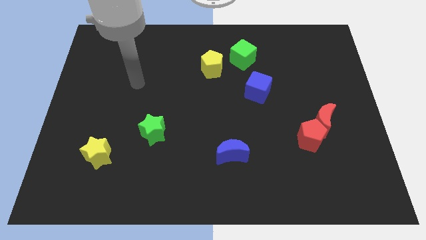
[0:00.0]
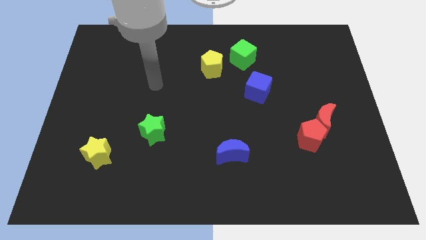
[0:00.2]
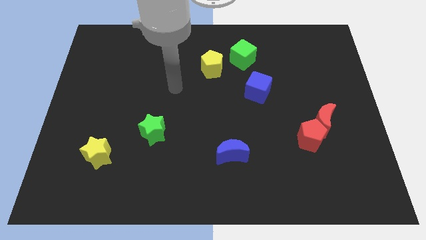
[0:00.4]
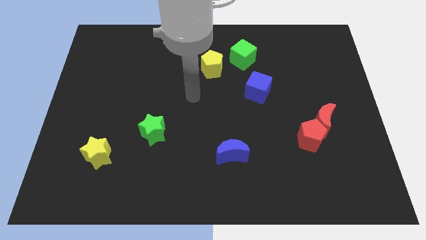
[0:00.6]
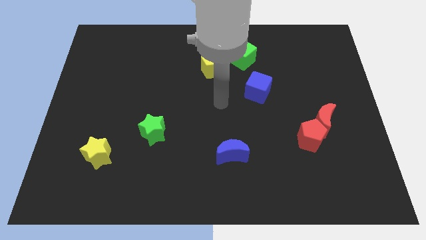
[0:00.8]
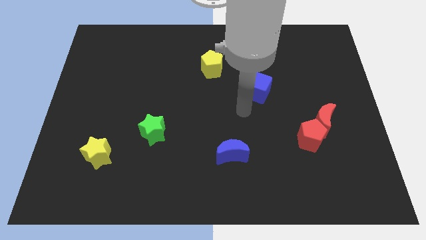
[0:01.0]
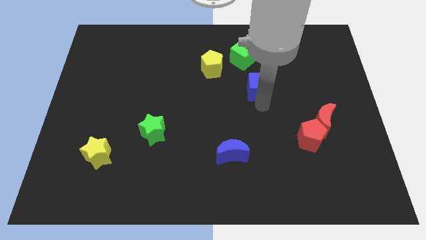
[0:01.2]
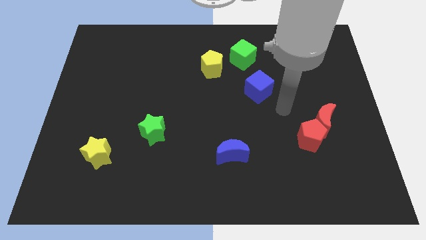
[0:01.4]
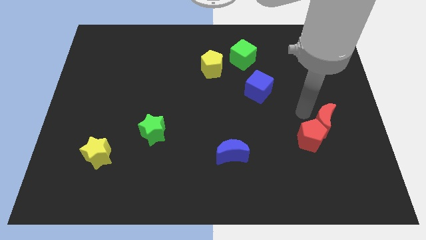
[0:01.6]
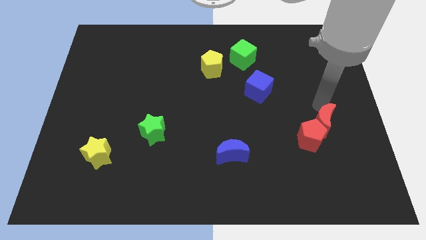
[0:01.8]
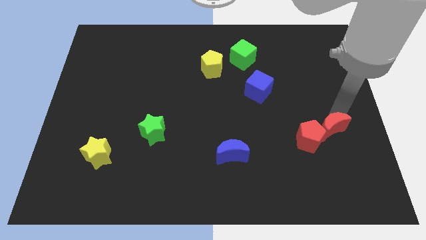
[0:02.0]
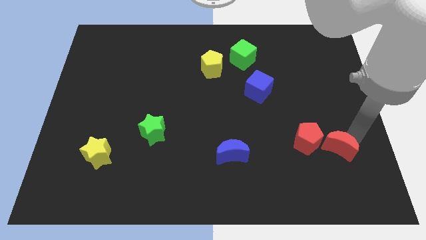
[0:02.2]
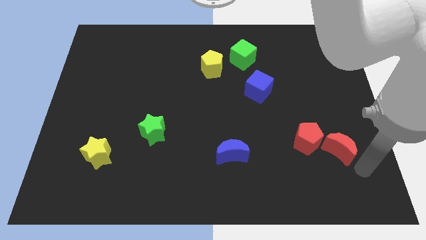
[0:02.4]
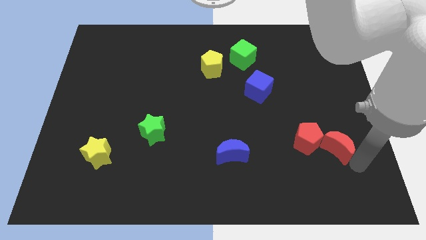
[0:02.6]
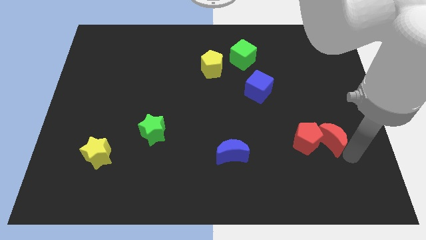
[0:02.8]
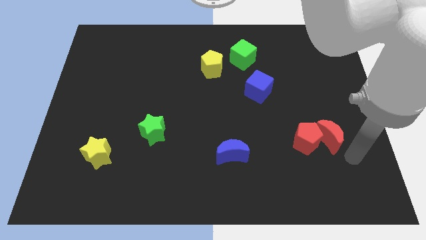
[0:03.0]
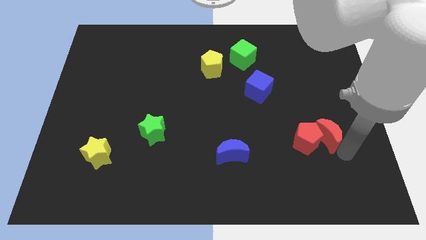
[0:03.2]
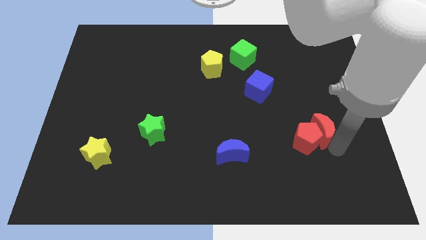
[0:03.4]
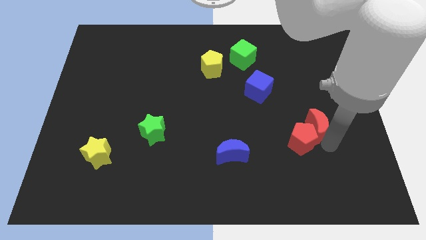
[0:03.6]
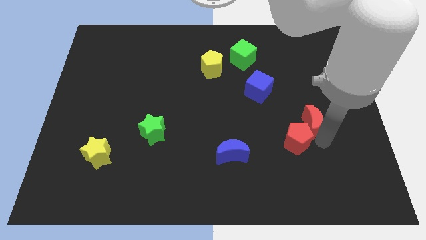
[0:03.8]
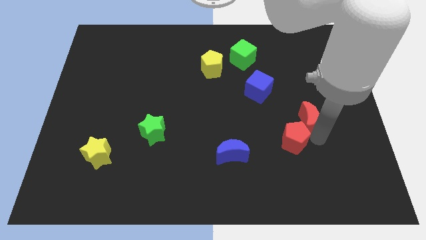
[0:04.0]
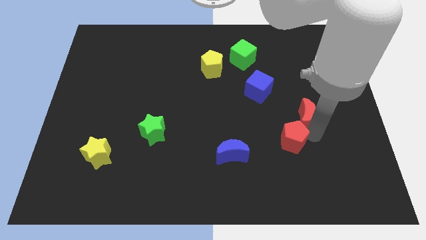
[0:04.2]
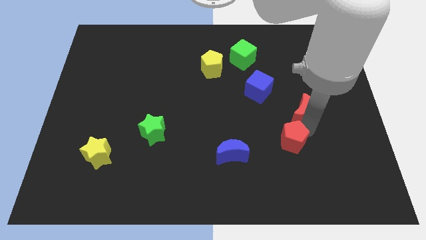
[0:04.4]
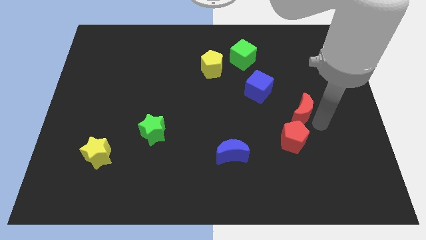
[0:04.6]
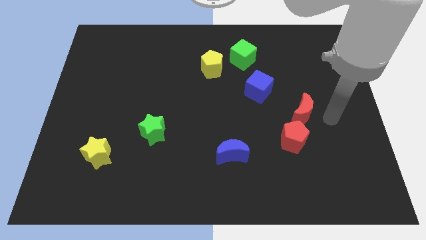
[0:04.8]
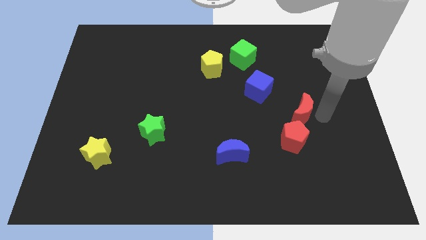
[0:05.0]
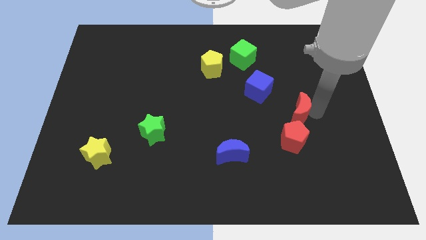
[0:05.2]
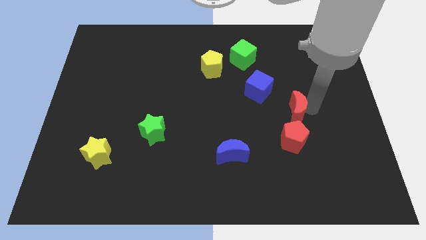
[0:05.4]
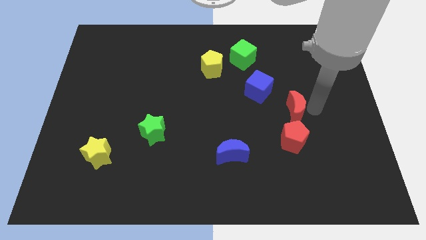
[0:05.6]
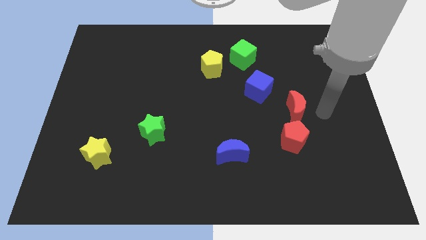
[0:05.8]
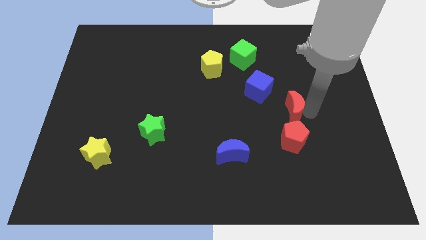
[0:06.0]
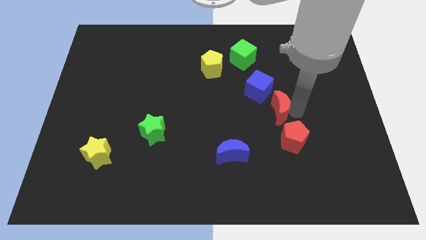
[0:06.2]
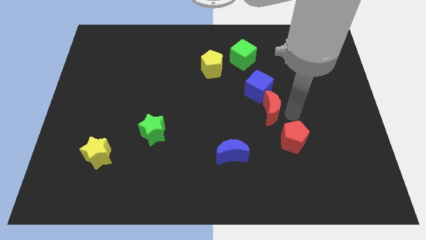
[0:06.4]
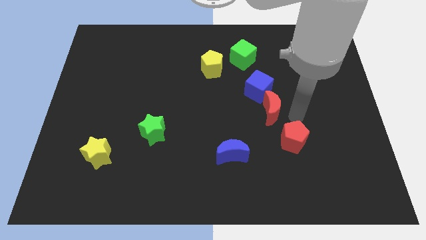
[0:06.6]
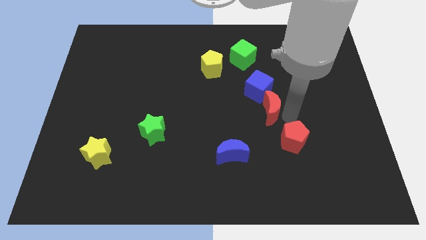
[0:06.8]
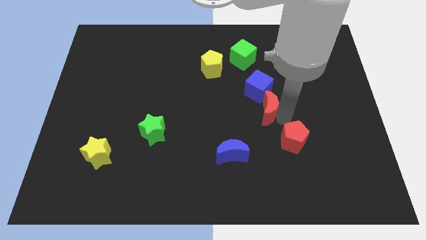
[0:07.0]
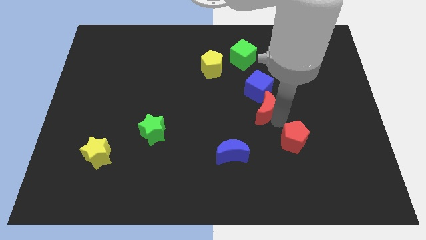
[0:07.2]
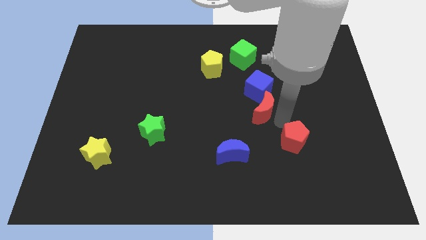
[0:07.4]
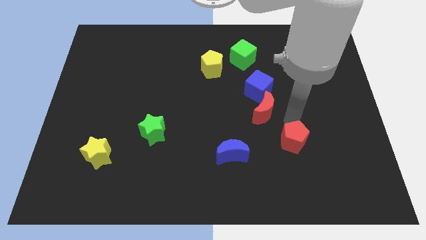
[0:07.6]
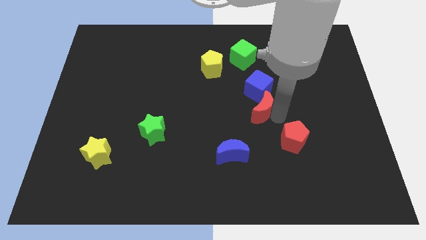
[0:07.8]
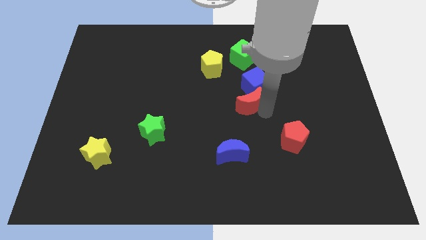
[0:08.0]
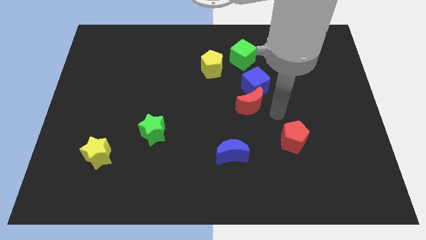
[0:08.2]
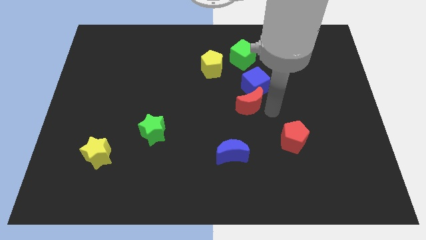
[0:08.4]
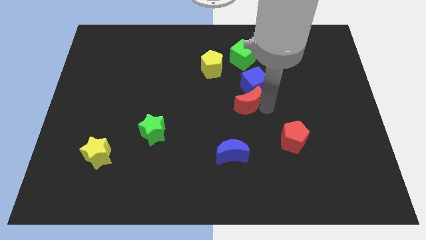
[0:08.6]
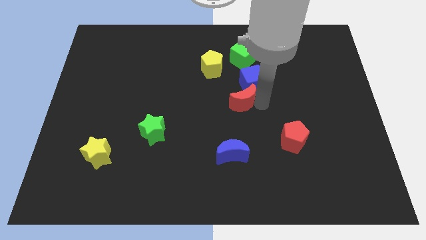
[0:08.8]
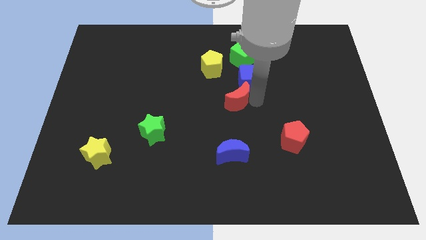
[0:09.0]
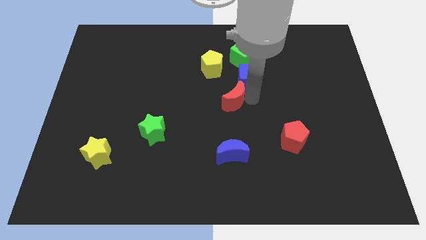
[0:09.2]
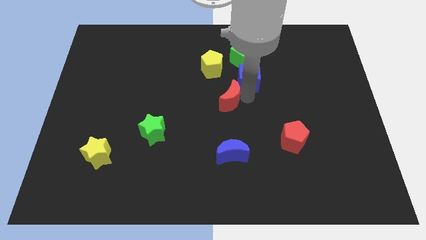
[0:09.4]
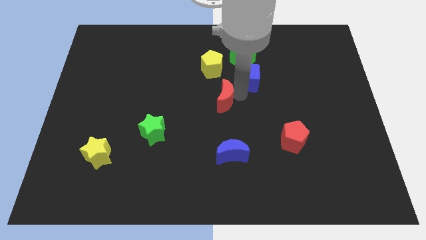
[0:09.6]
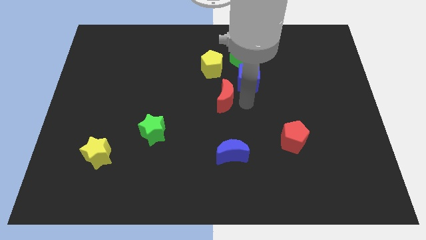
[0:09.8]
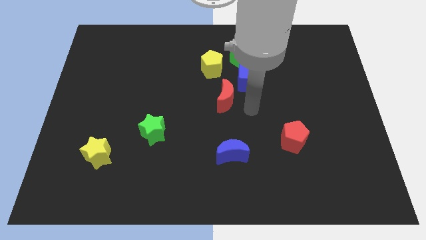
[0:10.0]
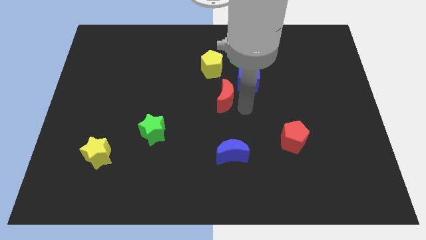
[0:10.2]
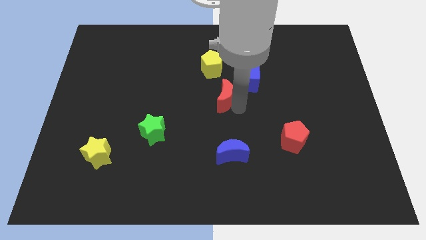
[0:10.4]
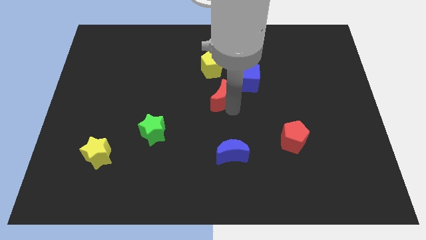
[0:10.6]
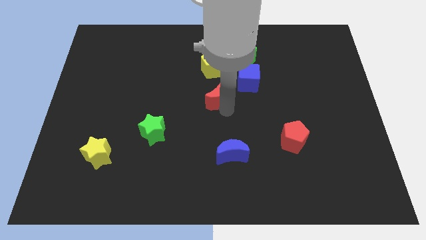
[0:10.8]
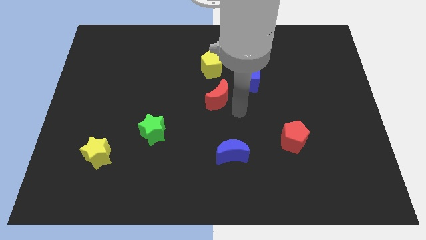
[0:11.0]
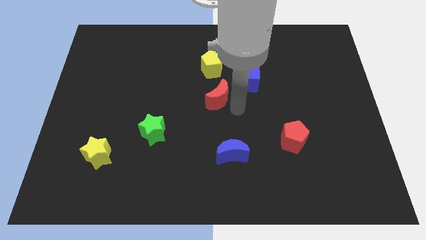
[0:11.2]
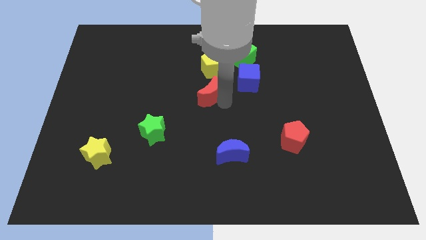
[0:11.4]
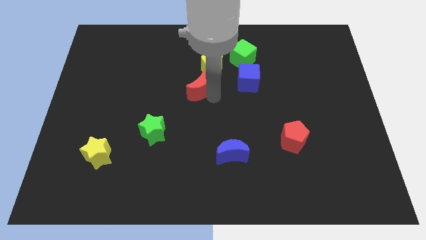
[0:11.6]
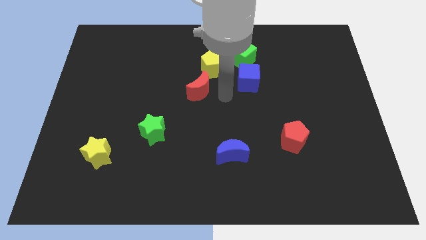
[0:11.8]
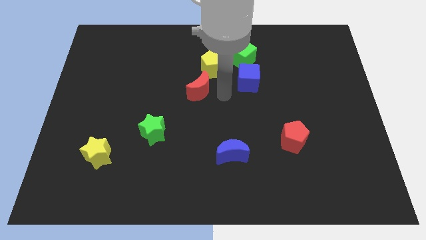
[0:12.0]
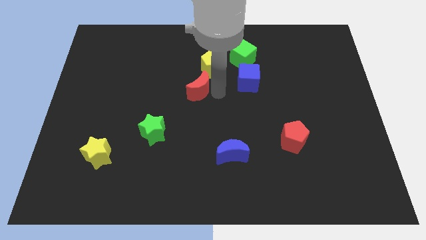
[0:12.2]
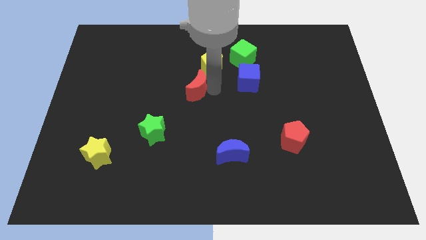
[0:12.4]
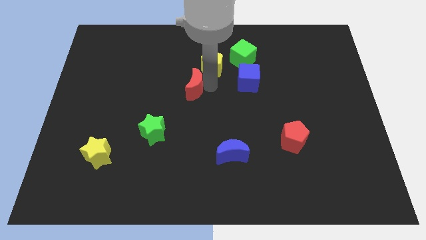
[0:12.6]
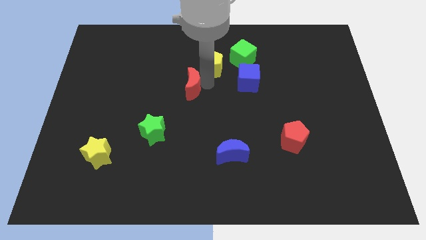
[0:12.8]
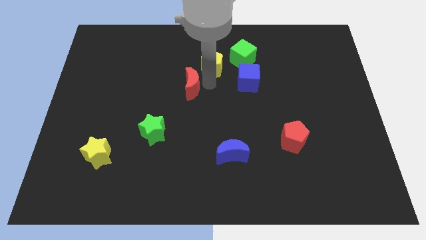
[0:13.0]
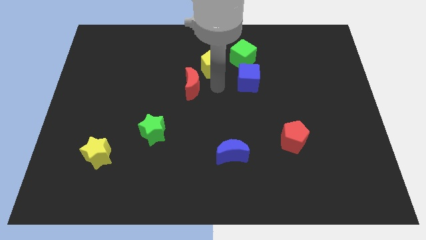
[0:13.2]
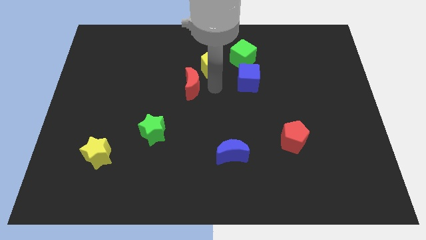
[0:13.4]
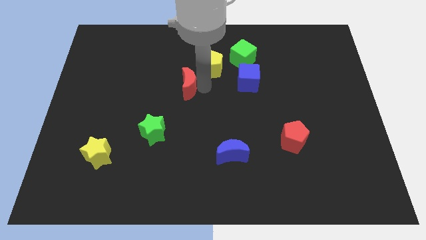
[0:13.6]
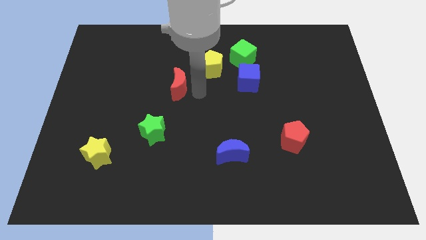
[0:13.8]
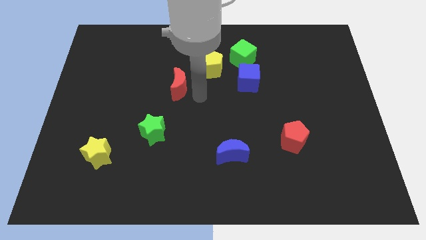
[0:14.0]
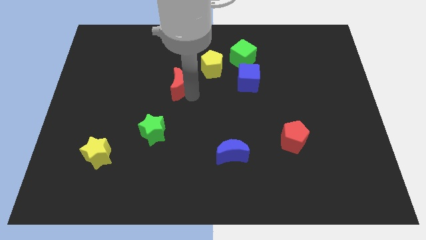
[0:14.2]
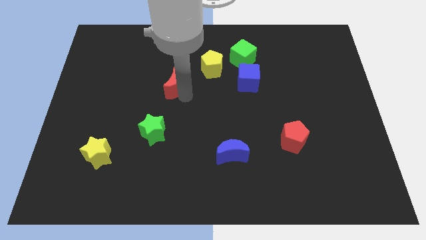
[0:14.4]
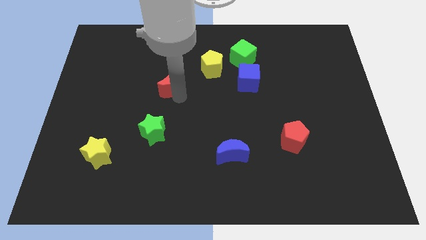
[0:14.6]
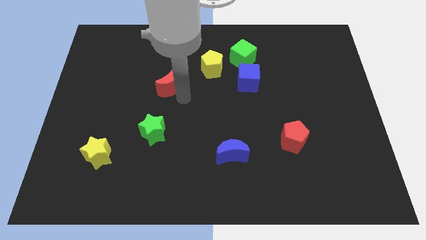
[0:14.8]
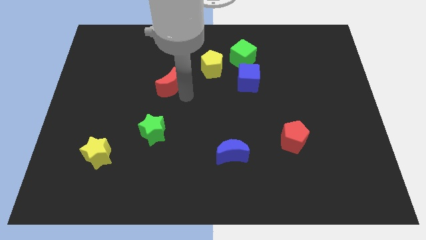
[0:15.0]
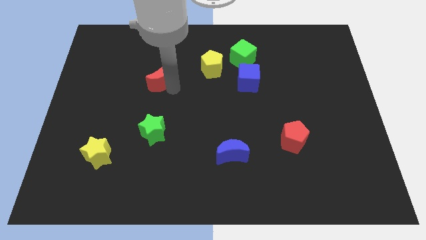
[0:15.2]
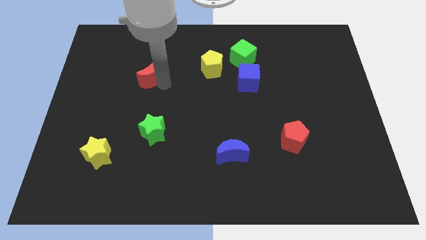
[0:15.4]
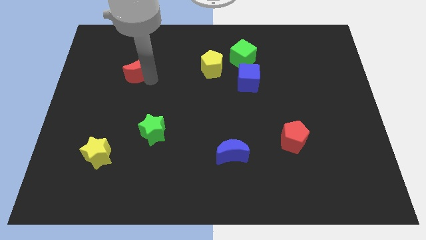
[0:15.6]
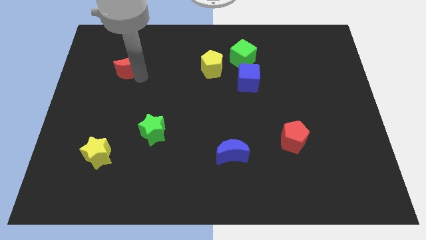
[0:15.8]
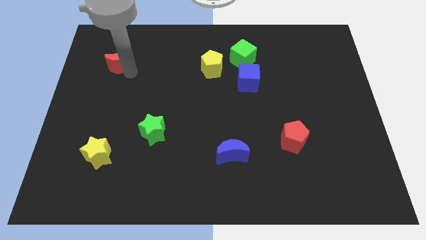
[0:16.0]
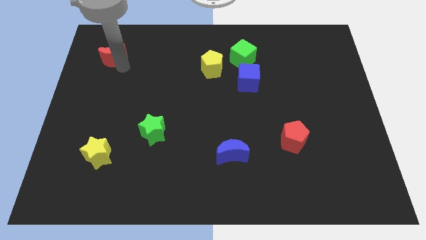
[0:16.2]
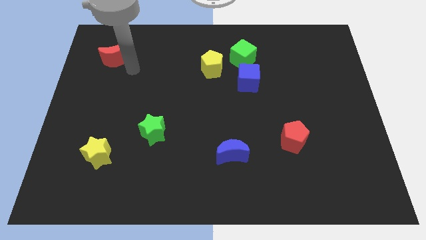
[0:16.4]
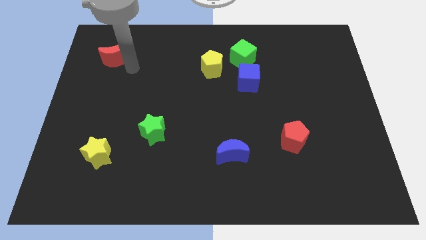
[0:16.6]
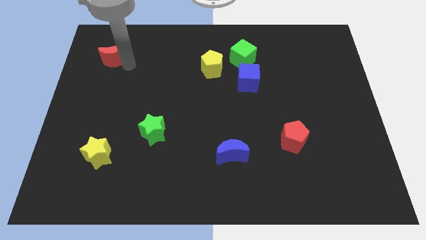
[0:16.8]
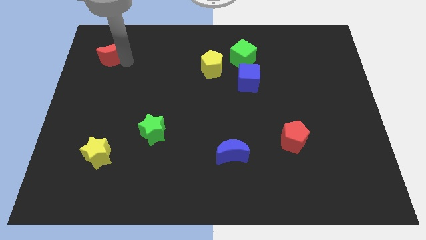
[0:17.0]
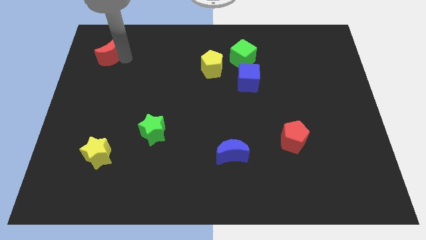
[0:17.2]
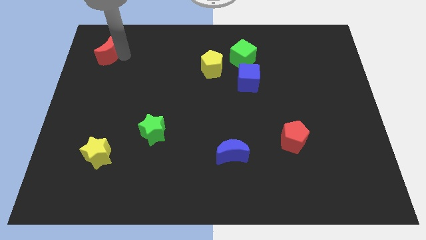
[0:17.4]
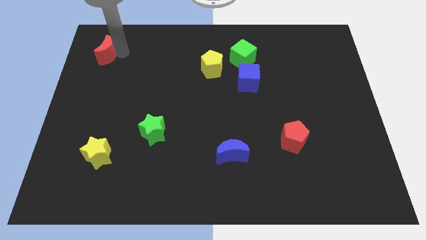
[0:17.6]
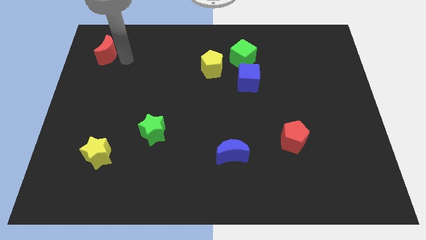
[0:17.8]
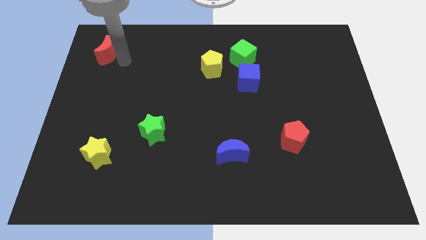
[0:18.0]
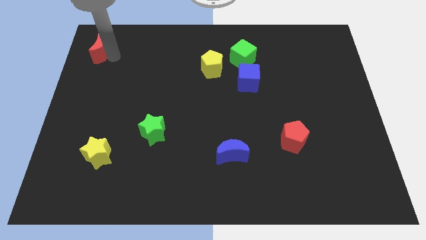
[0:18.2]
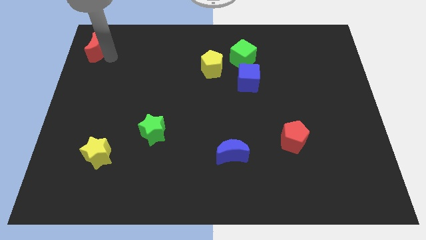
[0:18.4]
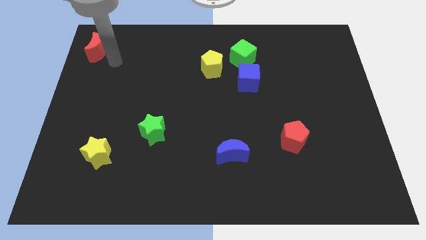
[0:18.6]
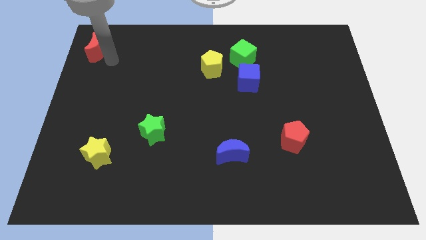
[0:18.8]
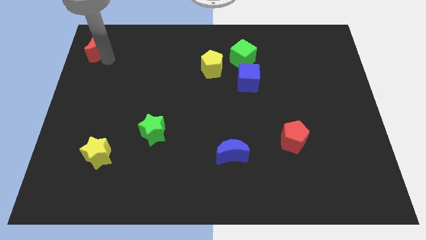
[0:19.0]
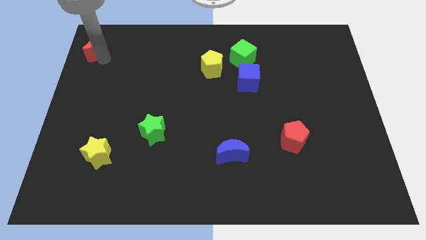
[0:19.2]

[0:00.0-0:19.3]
put the red moon to the top left of the board
